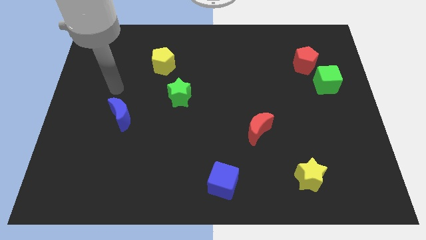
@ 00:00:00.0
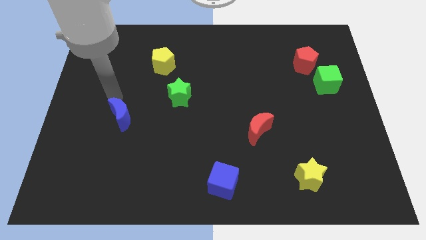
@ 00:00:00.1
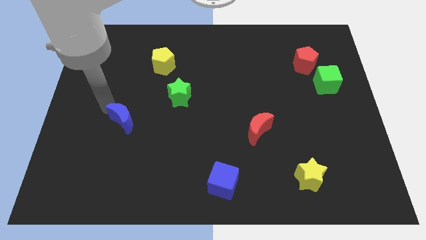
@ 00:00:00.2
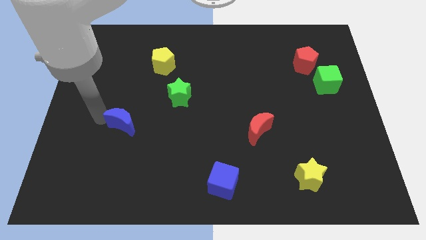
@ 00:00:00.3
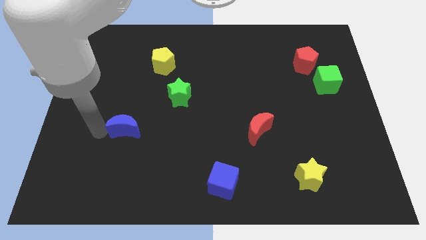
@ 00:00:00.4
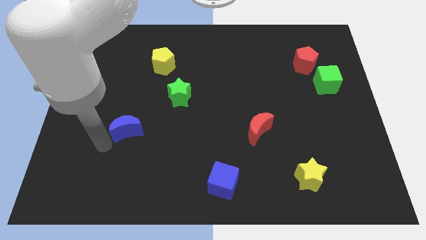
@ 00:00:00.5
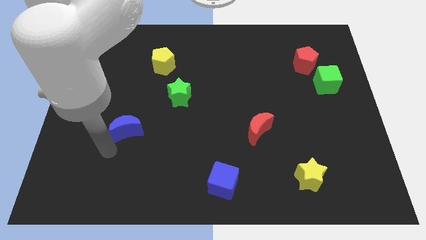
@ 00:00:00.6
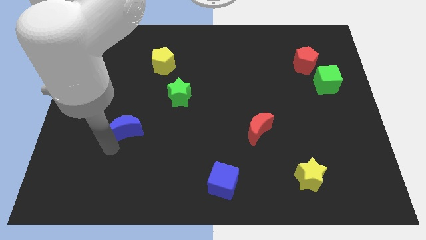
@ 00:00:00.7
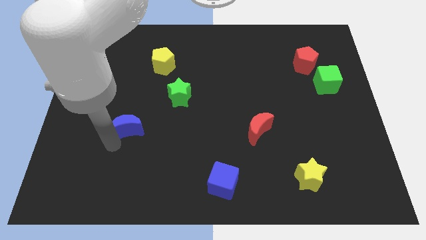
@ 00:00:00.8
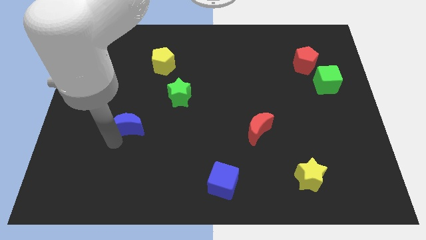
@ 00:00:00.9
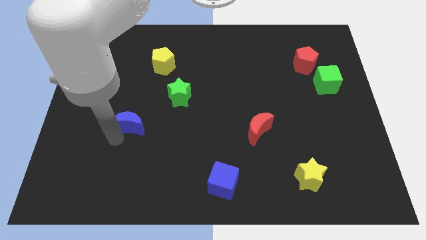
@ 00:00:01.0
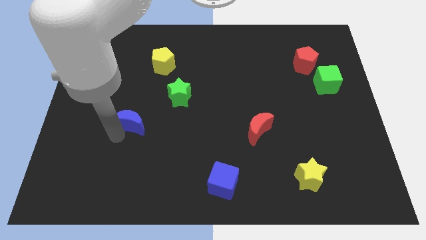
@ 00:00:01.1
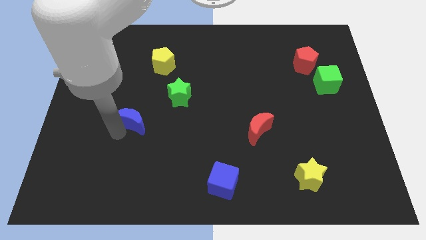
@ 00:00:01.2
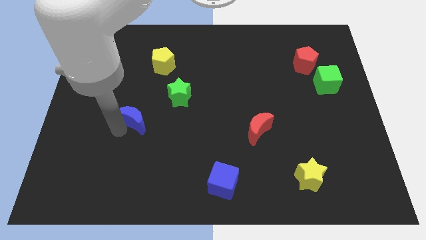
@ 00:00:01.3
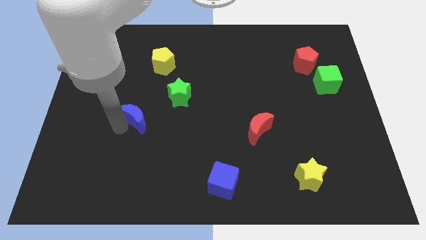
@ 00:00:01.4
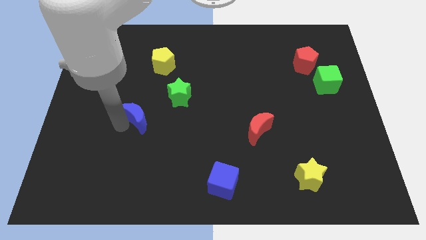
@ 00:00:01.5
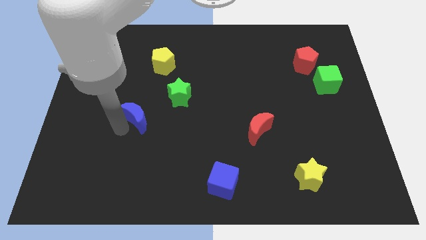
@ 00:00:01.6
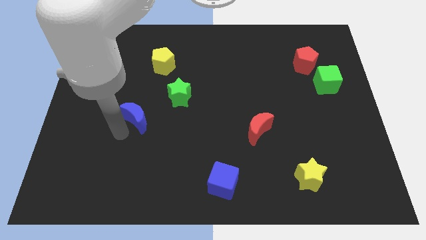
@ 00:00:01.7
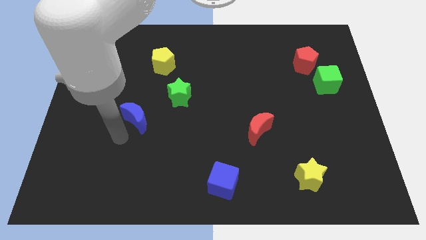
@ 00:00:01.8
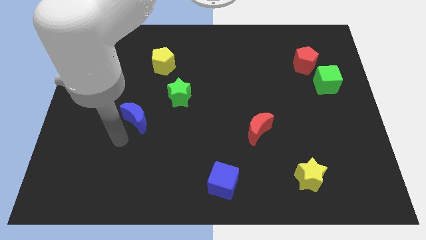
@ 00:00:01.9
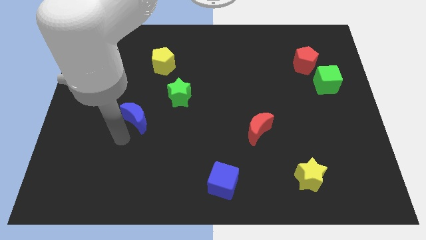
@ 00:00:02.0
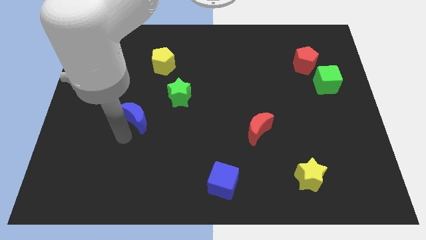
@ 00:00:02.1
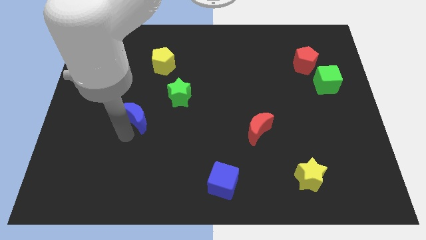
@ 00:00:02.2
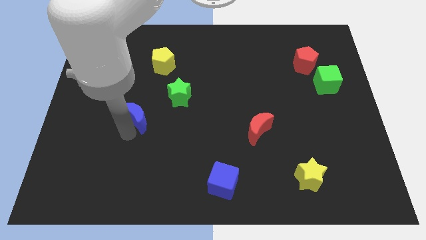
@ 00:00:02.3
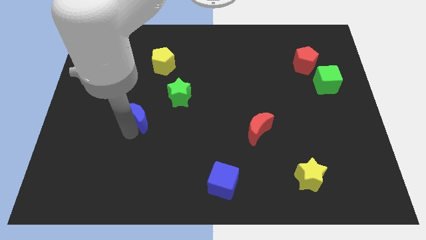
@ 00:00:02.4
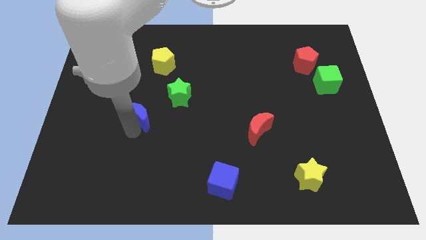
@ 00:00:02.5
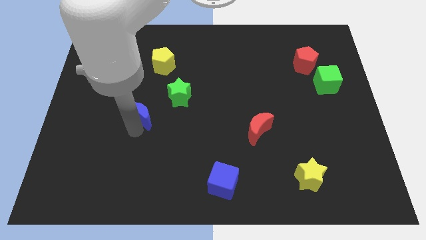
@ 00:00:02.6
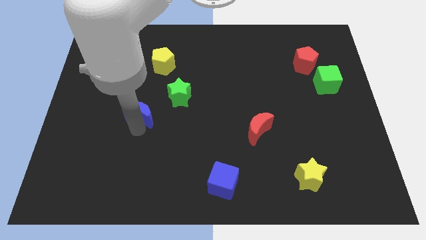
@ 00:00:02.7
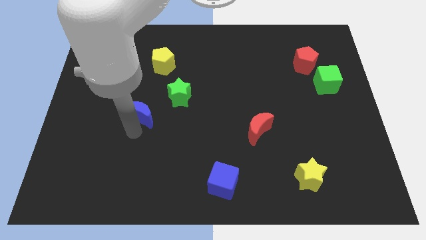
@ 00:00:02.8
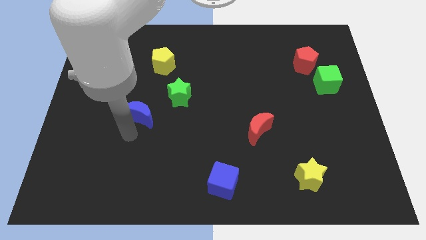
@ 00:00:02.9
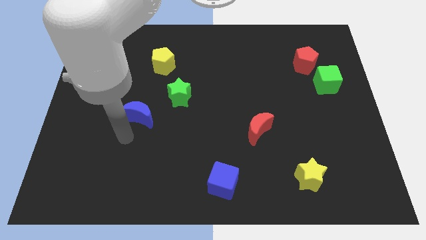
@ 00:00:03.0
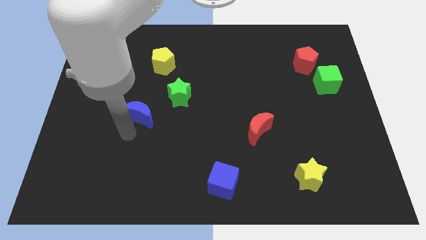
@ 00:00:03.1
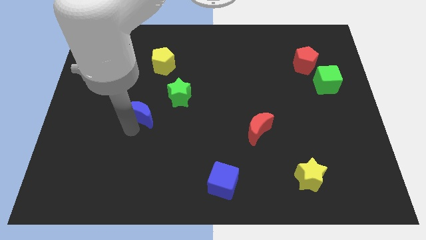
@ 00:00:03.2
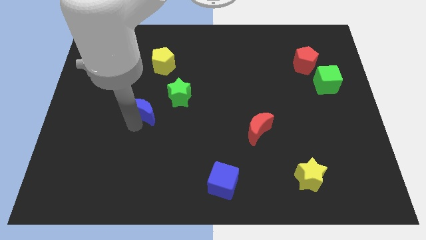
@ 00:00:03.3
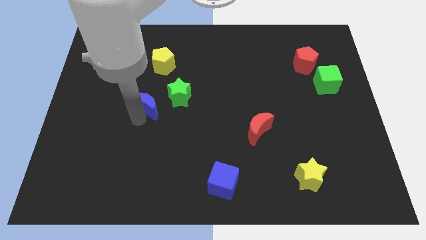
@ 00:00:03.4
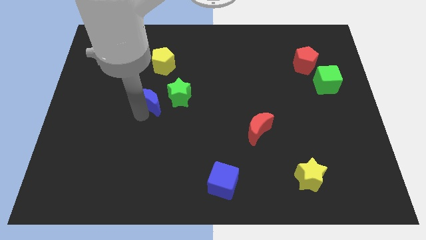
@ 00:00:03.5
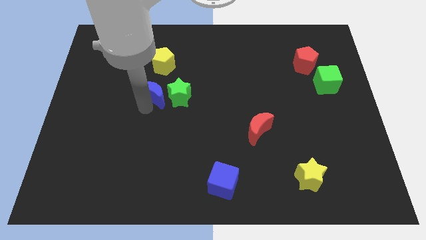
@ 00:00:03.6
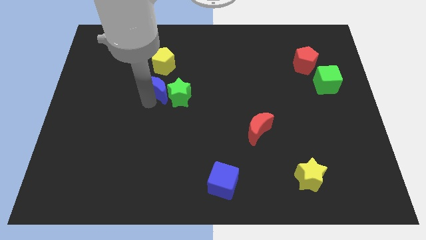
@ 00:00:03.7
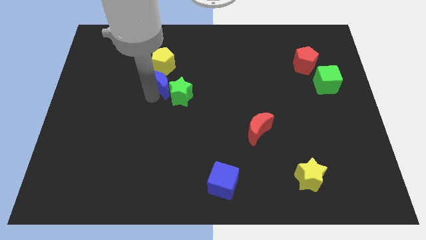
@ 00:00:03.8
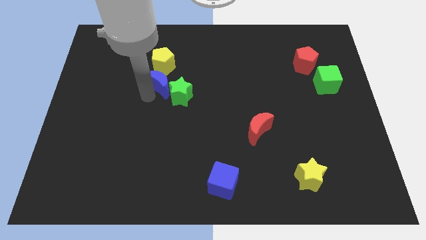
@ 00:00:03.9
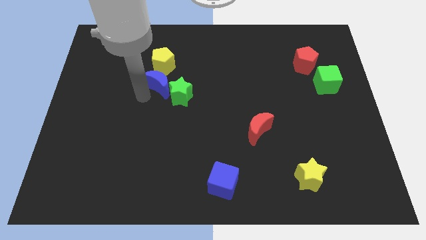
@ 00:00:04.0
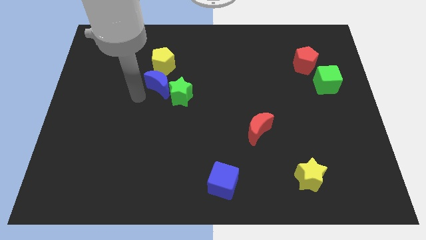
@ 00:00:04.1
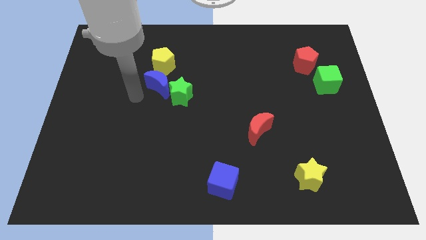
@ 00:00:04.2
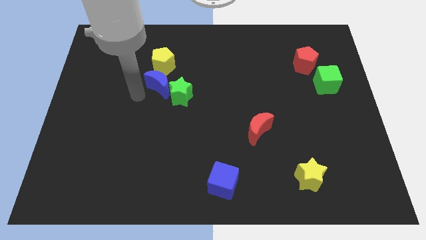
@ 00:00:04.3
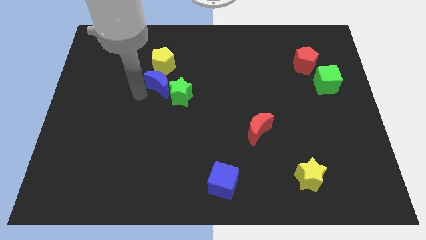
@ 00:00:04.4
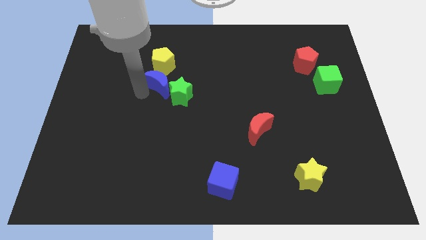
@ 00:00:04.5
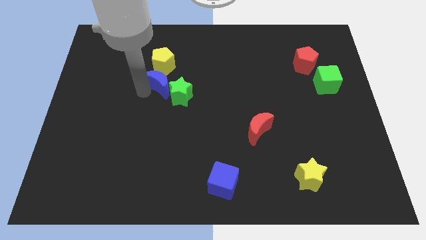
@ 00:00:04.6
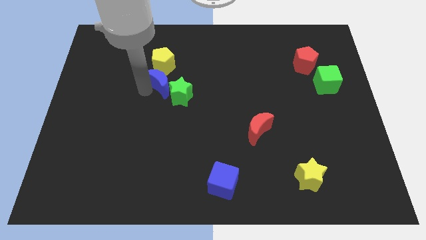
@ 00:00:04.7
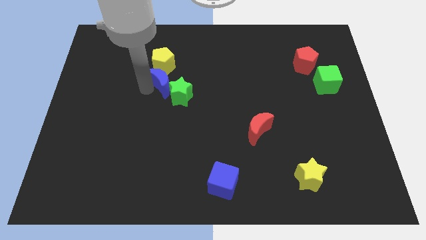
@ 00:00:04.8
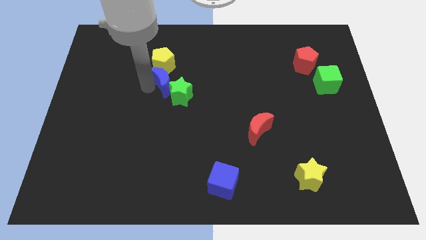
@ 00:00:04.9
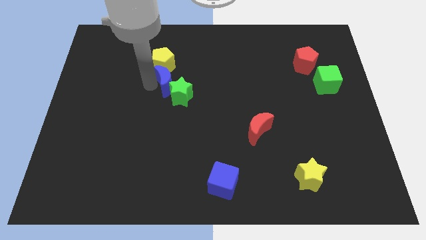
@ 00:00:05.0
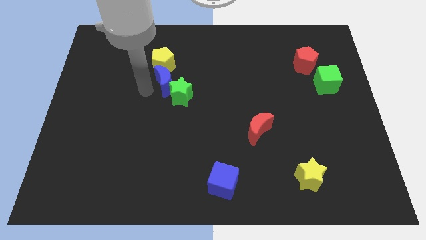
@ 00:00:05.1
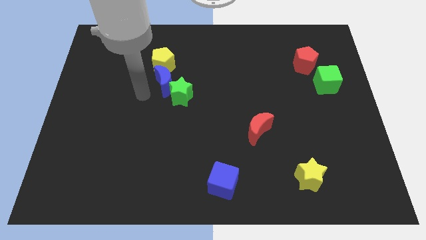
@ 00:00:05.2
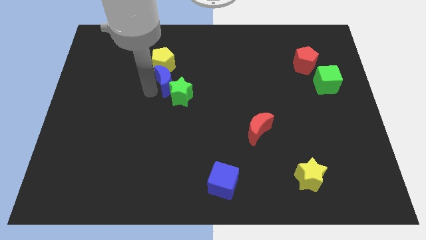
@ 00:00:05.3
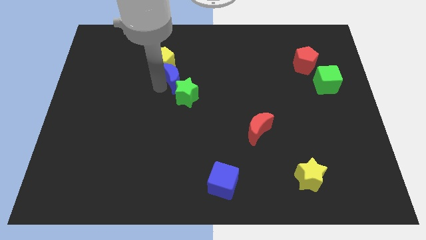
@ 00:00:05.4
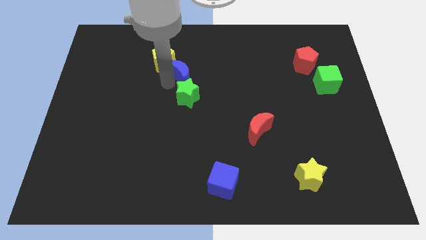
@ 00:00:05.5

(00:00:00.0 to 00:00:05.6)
slide the blue moon to the right side of the yellow pentagon

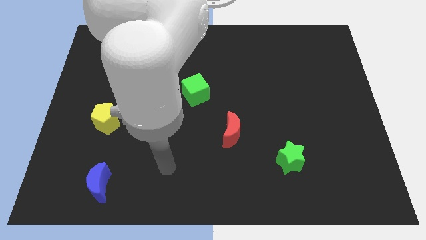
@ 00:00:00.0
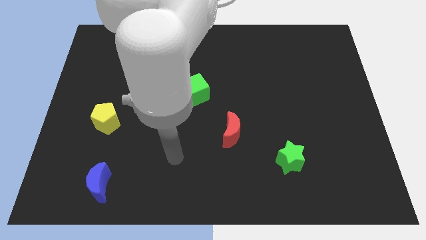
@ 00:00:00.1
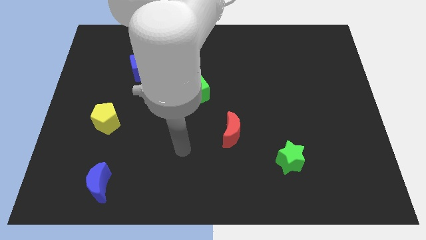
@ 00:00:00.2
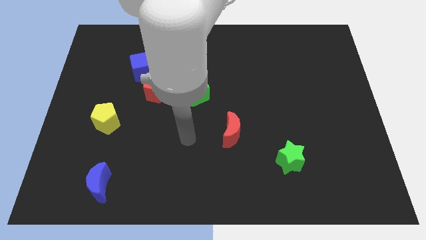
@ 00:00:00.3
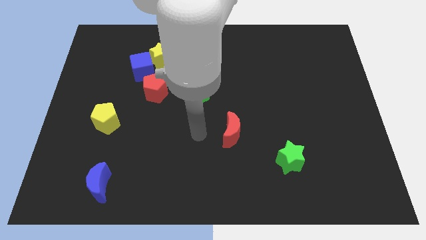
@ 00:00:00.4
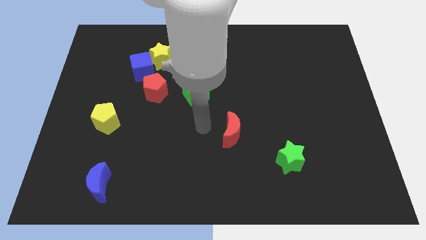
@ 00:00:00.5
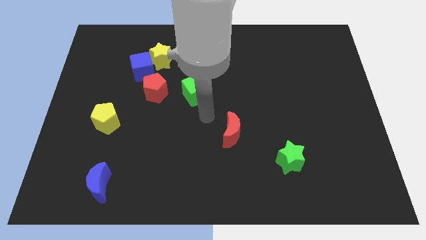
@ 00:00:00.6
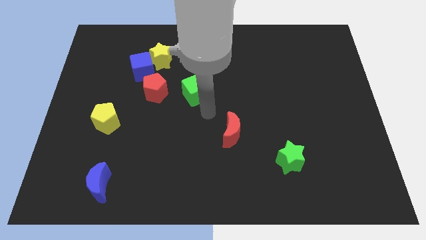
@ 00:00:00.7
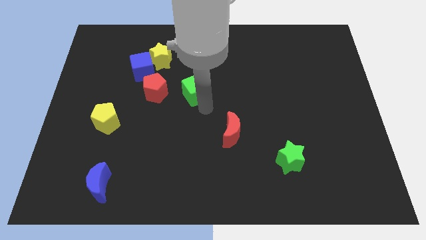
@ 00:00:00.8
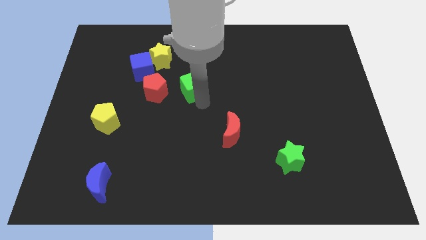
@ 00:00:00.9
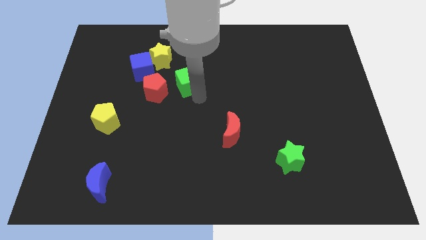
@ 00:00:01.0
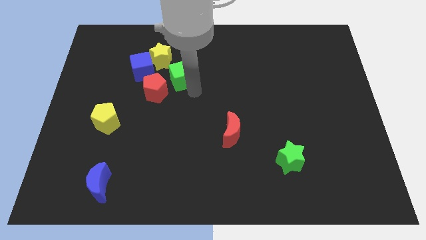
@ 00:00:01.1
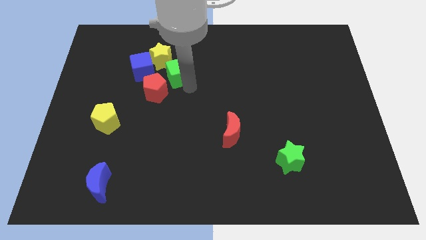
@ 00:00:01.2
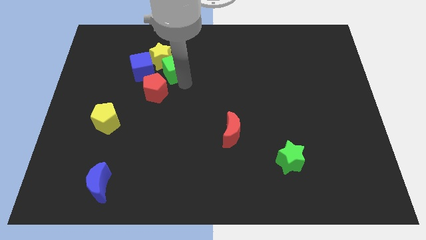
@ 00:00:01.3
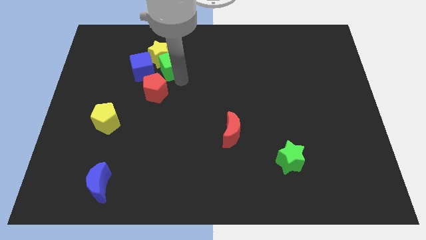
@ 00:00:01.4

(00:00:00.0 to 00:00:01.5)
push the green cube diagonally up and to the right of the blue cube
